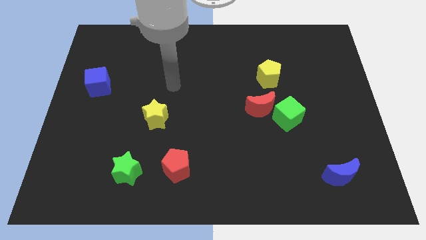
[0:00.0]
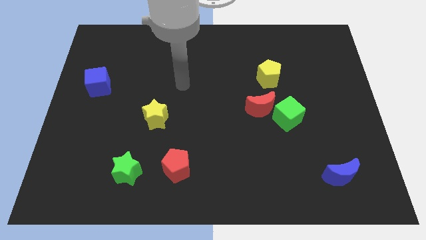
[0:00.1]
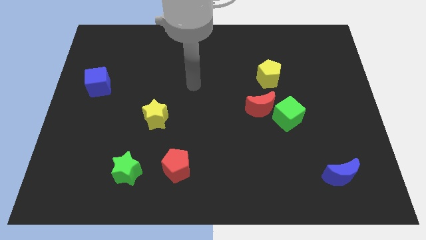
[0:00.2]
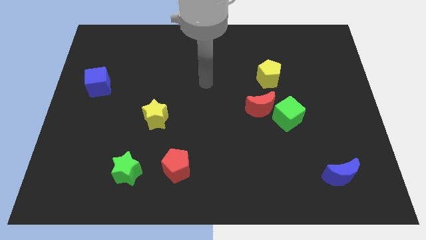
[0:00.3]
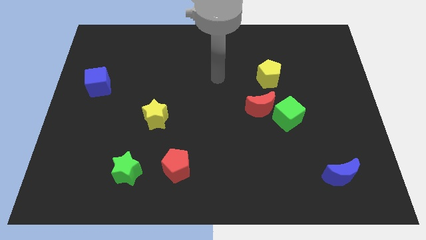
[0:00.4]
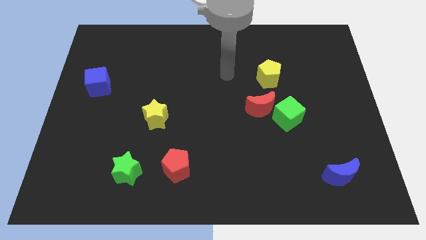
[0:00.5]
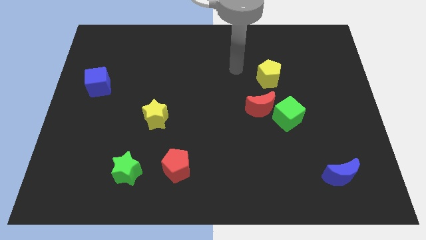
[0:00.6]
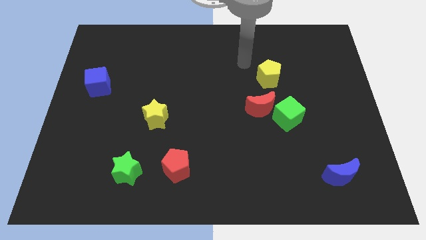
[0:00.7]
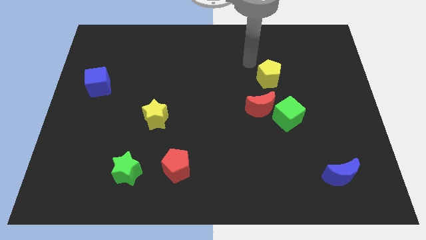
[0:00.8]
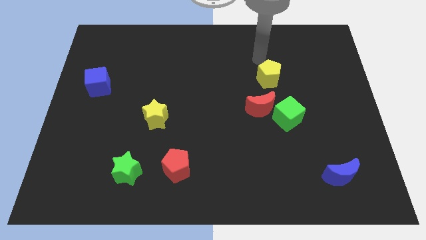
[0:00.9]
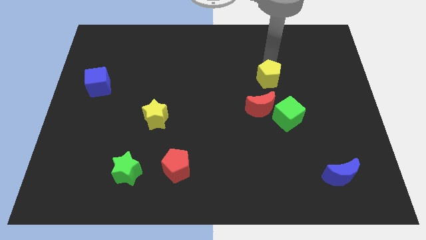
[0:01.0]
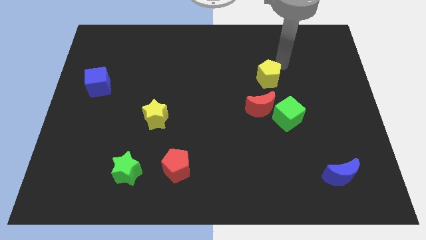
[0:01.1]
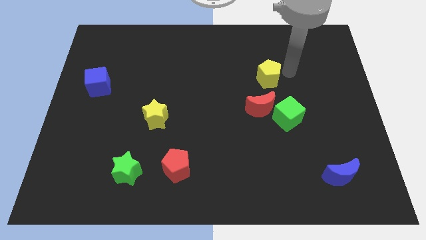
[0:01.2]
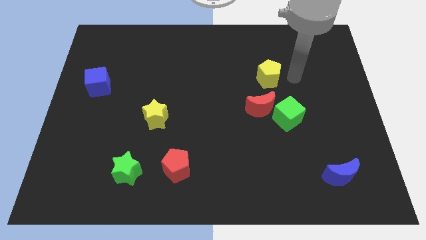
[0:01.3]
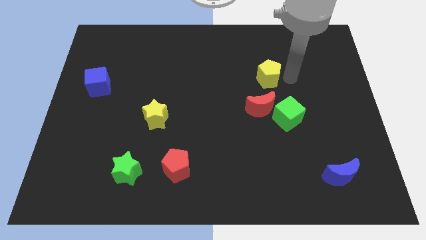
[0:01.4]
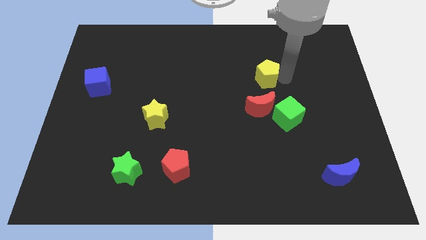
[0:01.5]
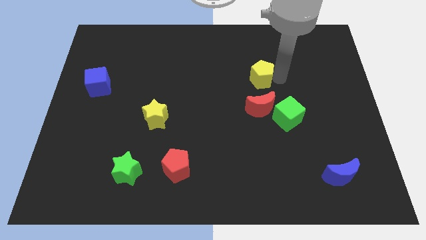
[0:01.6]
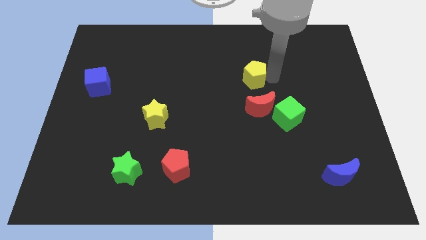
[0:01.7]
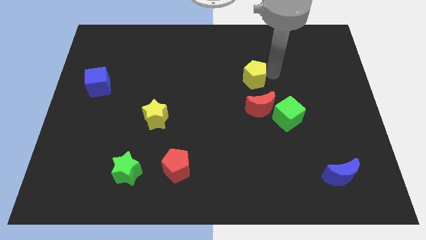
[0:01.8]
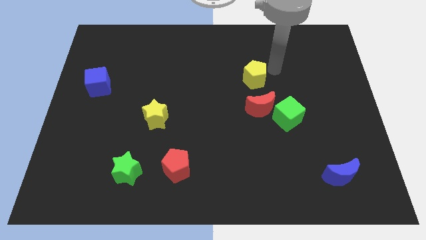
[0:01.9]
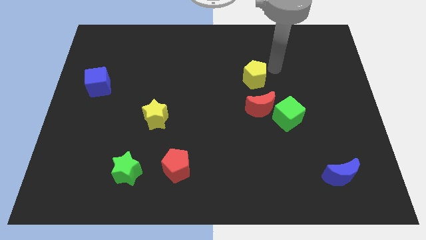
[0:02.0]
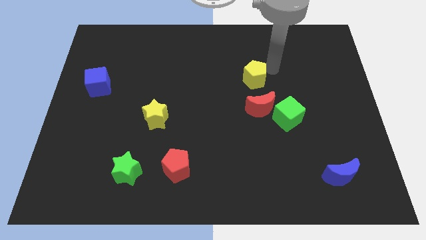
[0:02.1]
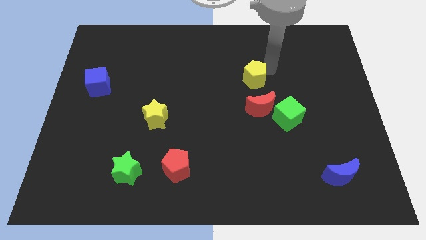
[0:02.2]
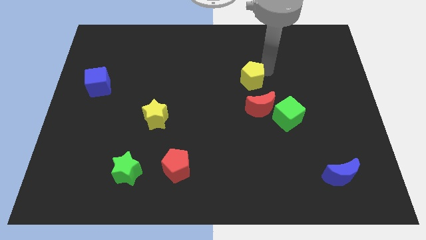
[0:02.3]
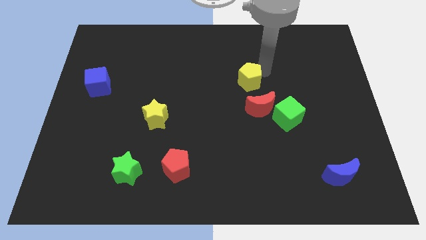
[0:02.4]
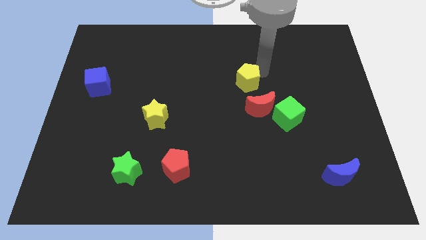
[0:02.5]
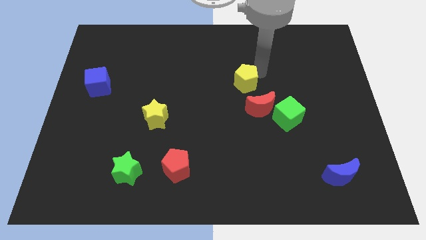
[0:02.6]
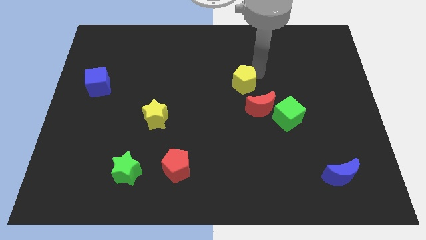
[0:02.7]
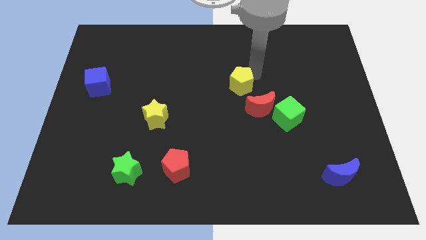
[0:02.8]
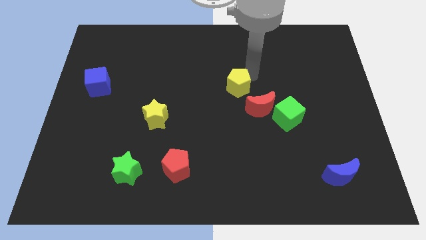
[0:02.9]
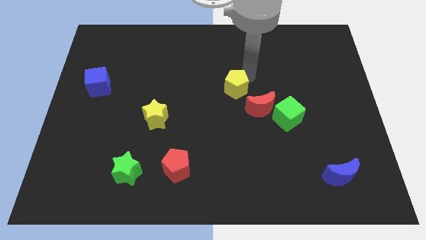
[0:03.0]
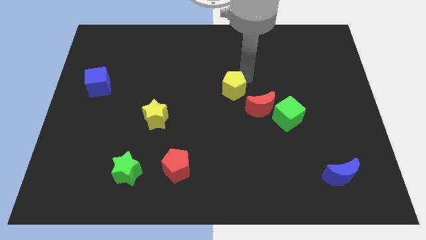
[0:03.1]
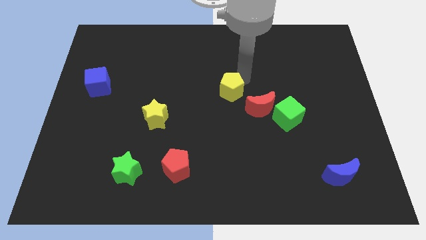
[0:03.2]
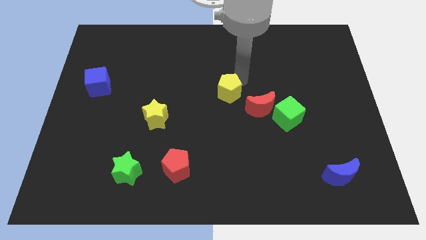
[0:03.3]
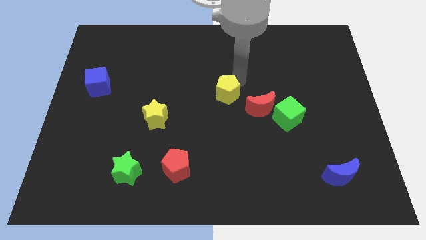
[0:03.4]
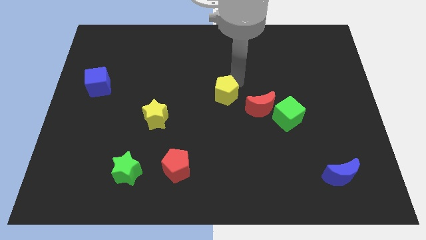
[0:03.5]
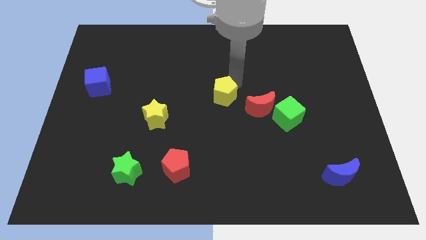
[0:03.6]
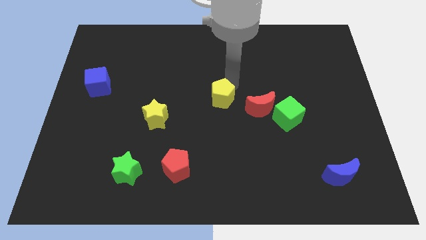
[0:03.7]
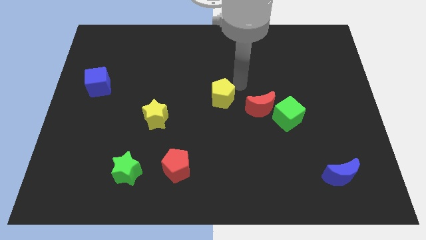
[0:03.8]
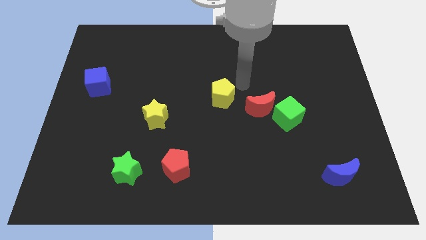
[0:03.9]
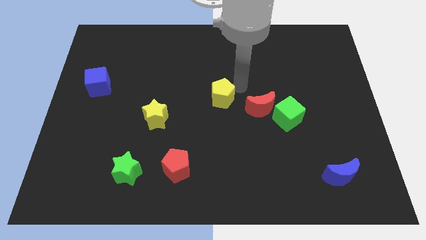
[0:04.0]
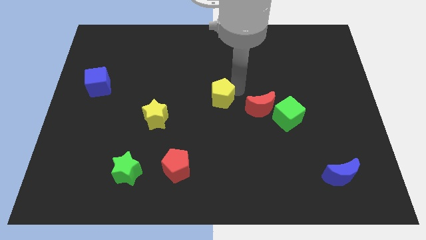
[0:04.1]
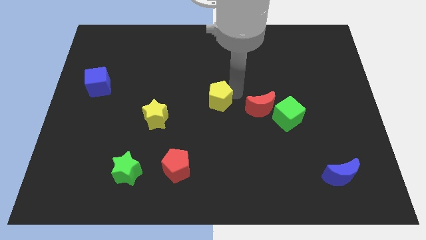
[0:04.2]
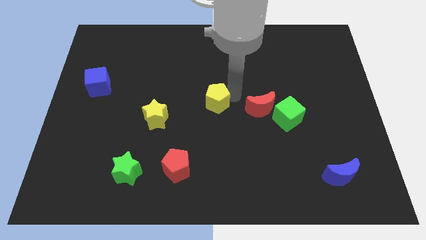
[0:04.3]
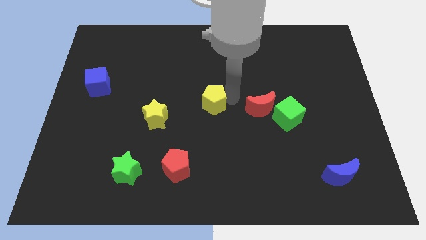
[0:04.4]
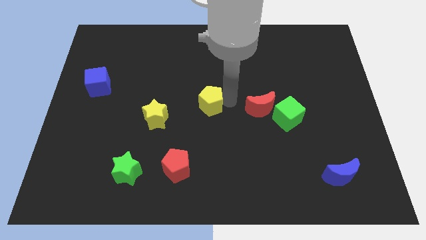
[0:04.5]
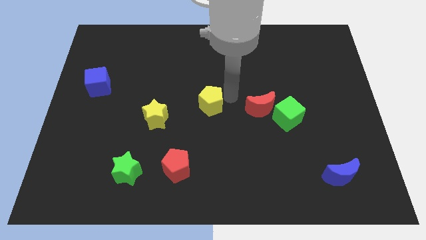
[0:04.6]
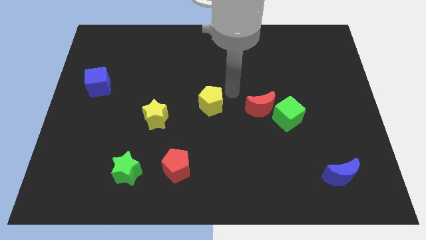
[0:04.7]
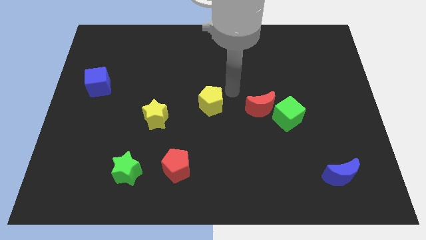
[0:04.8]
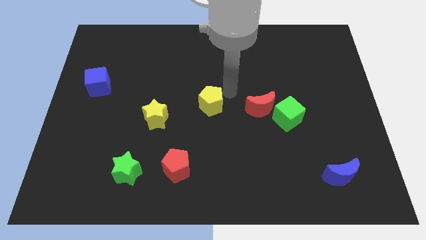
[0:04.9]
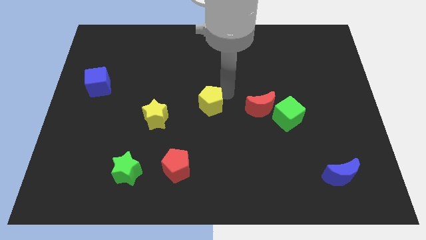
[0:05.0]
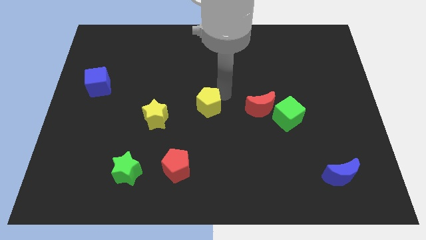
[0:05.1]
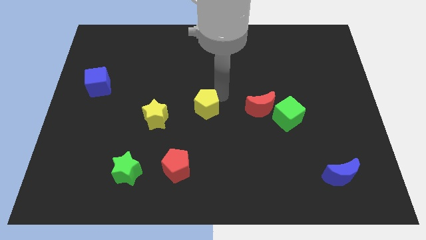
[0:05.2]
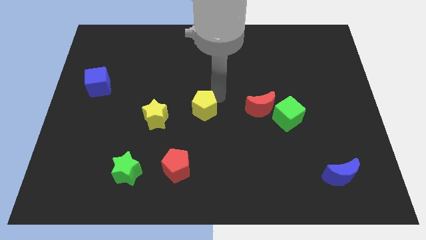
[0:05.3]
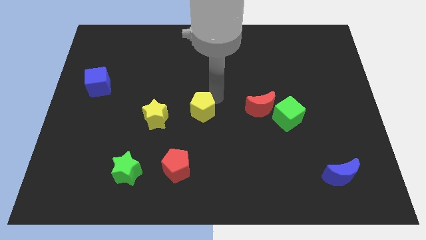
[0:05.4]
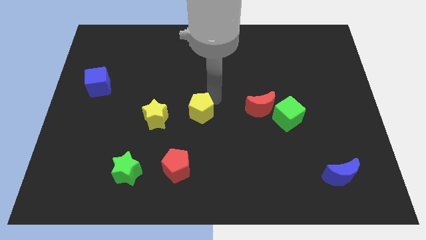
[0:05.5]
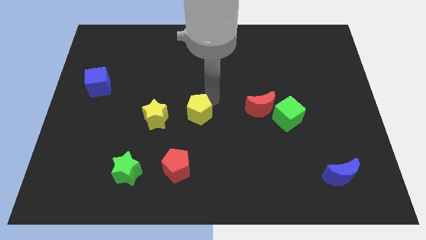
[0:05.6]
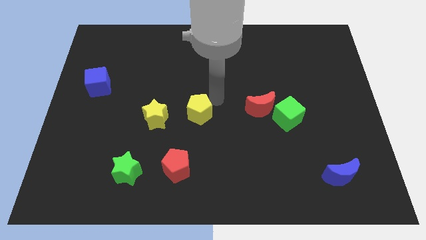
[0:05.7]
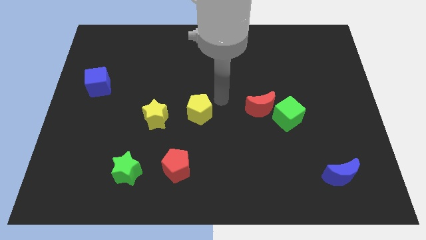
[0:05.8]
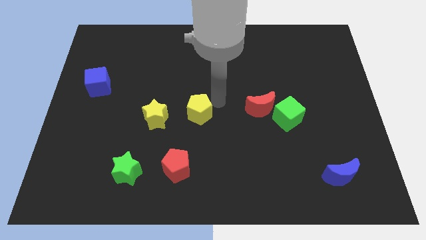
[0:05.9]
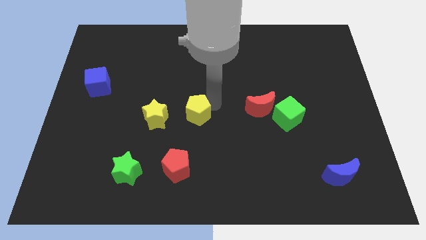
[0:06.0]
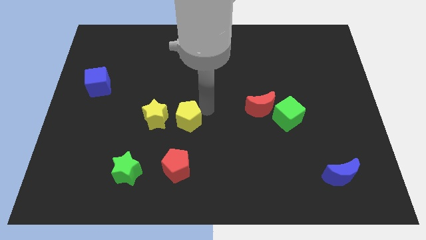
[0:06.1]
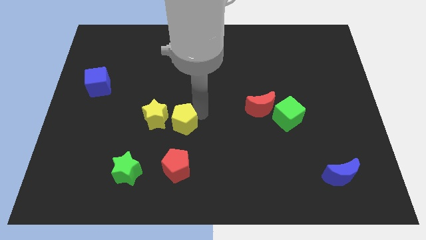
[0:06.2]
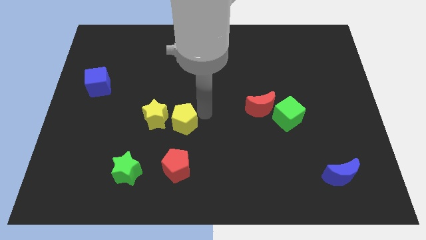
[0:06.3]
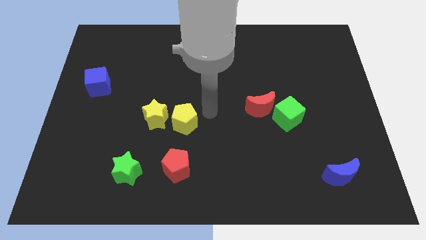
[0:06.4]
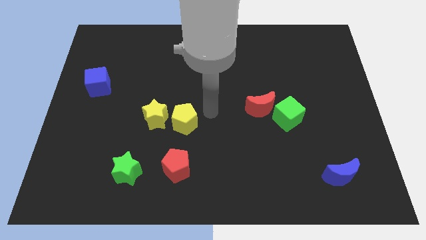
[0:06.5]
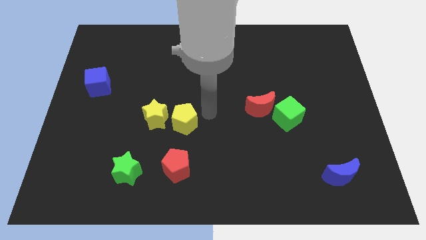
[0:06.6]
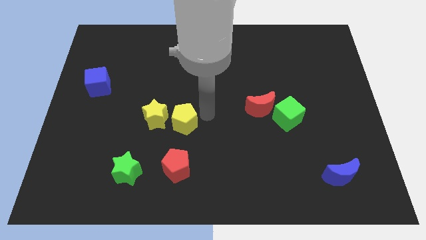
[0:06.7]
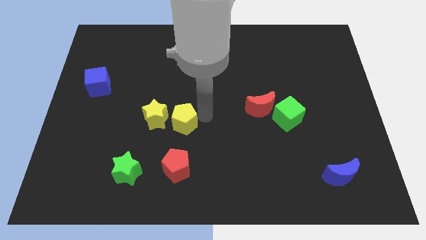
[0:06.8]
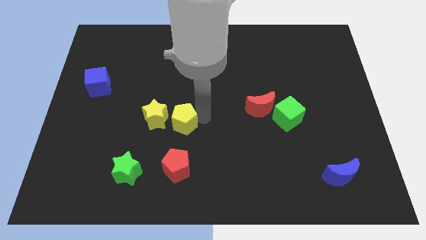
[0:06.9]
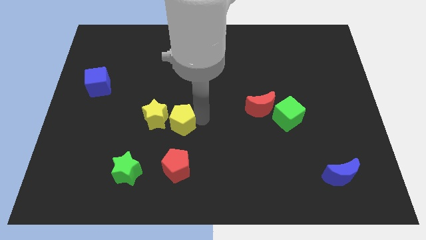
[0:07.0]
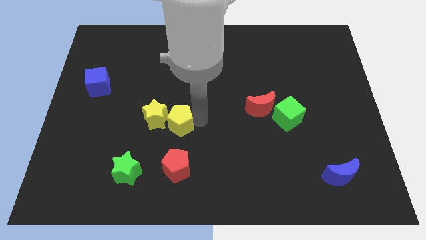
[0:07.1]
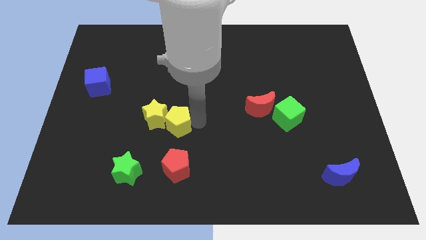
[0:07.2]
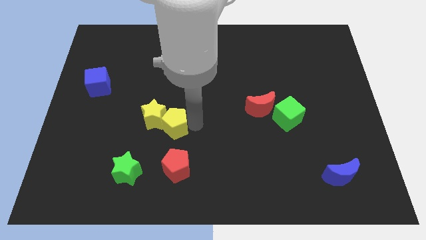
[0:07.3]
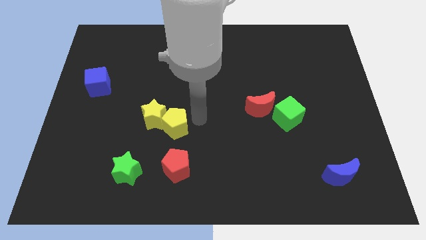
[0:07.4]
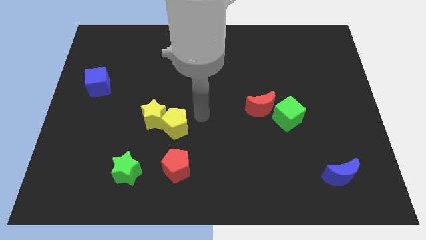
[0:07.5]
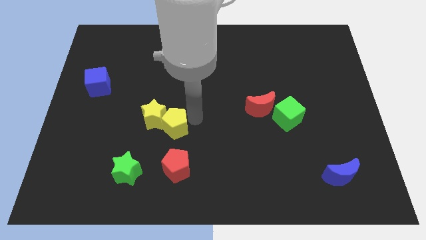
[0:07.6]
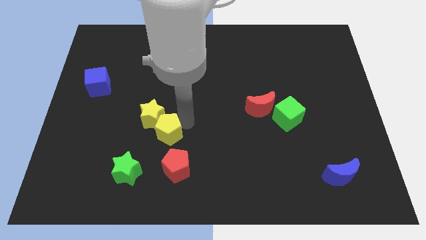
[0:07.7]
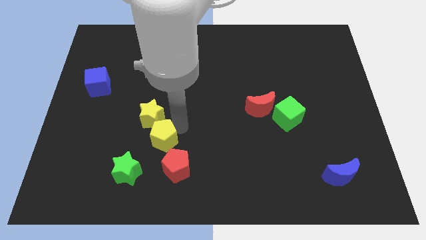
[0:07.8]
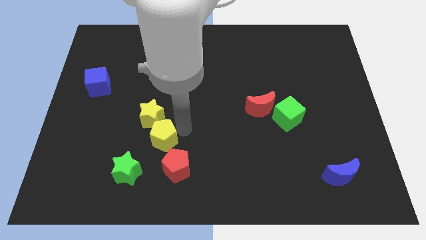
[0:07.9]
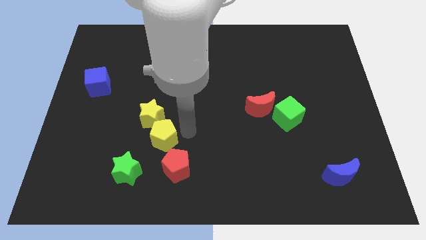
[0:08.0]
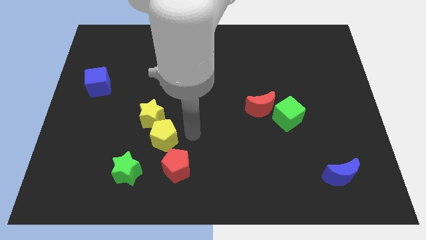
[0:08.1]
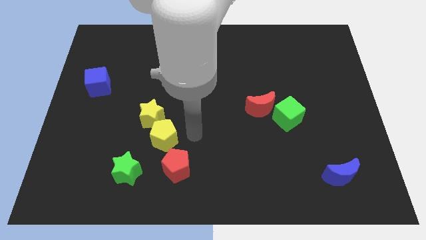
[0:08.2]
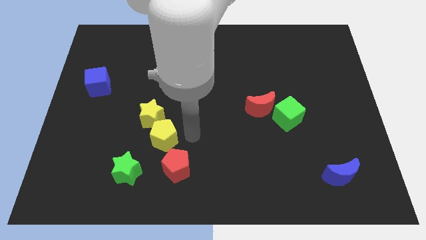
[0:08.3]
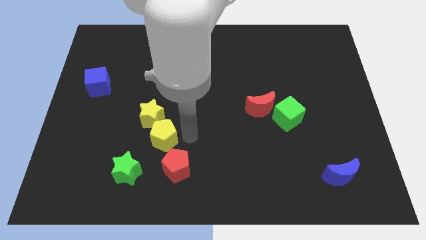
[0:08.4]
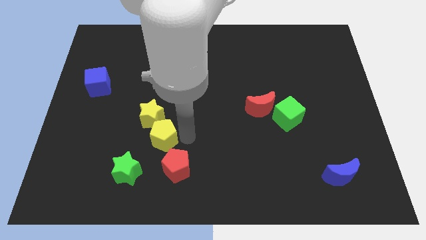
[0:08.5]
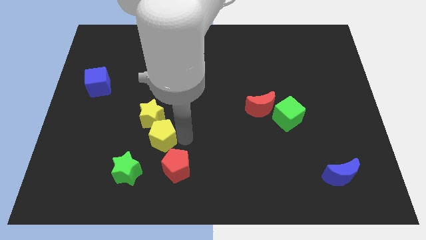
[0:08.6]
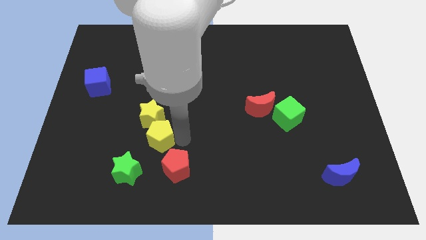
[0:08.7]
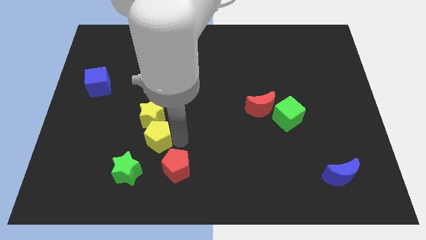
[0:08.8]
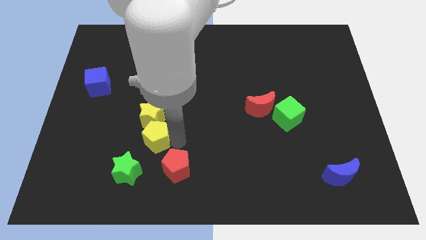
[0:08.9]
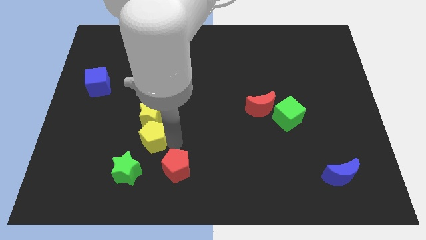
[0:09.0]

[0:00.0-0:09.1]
slide the yellow pentagon diagonally down and to the left of the yellow star
